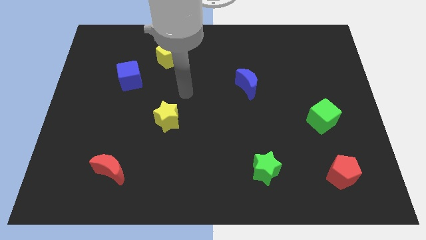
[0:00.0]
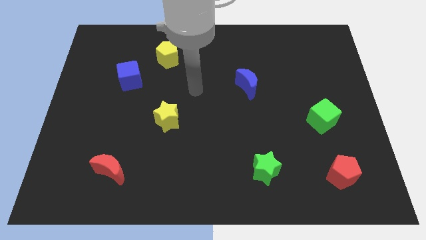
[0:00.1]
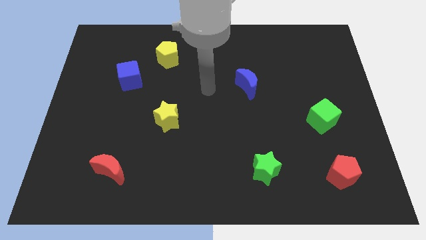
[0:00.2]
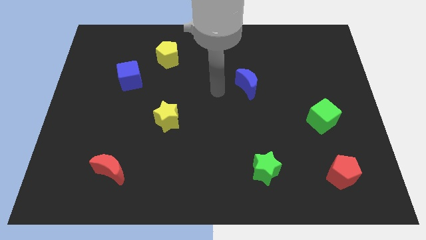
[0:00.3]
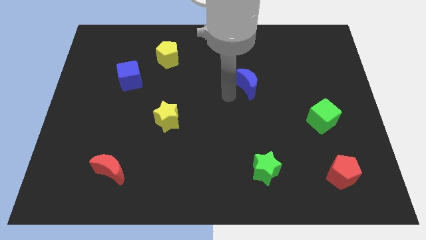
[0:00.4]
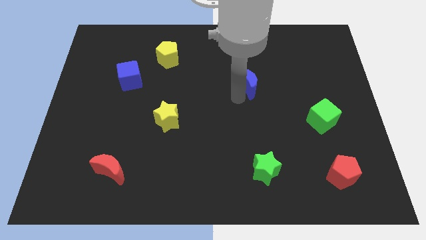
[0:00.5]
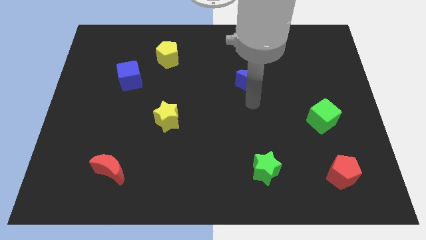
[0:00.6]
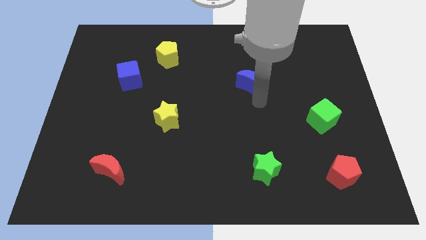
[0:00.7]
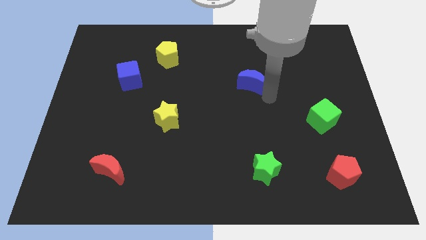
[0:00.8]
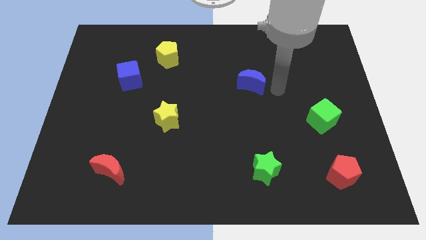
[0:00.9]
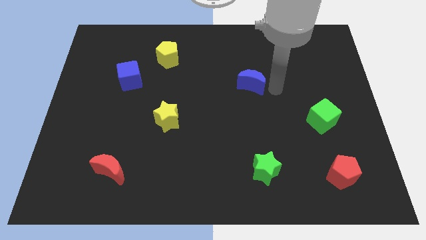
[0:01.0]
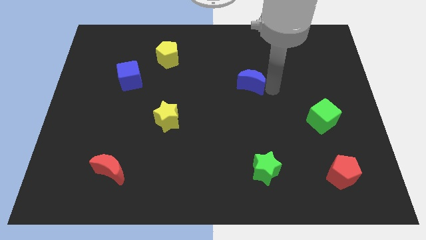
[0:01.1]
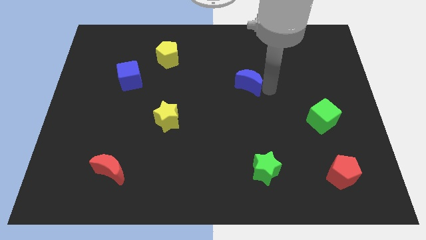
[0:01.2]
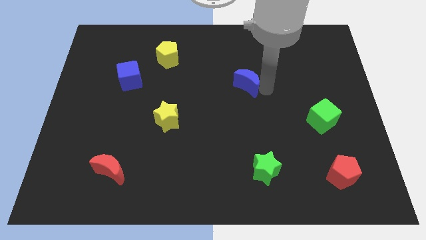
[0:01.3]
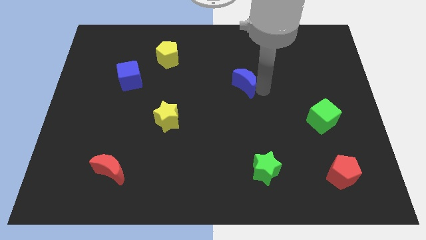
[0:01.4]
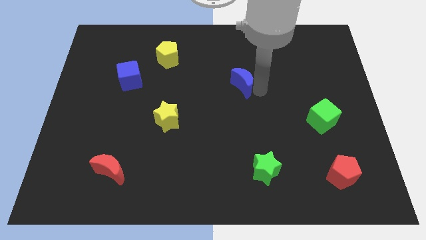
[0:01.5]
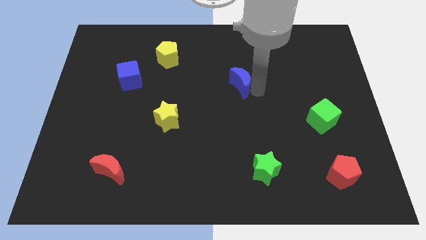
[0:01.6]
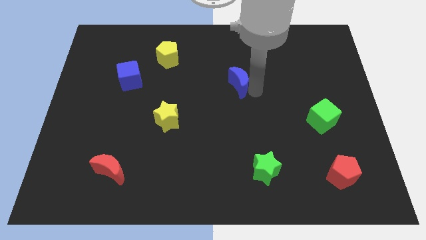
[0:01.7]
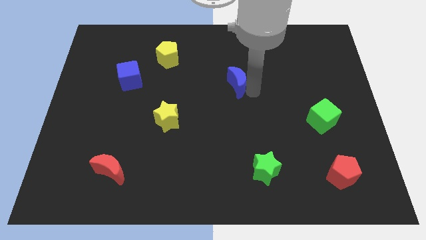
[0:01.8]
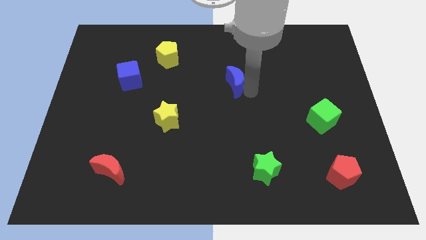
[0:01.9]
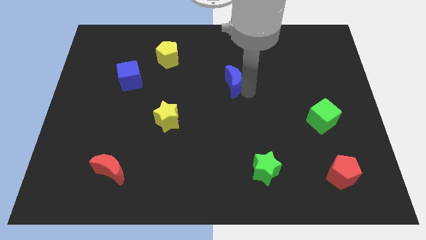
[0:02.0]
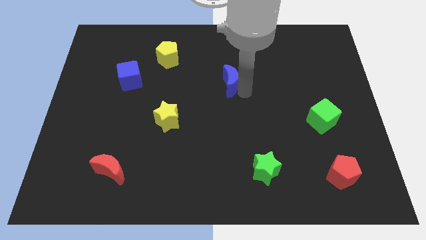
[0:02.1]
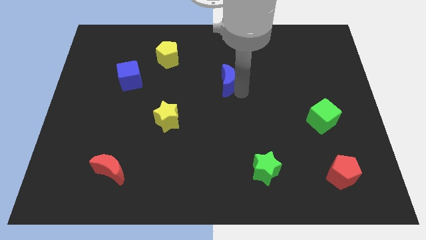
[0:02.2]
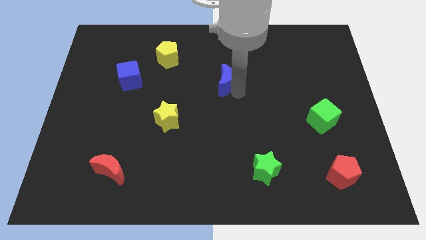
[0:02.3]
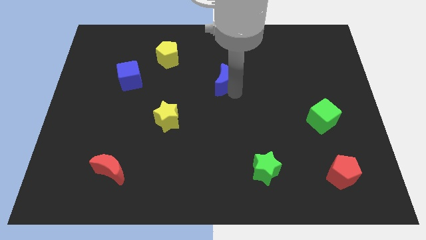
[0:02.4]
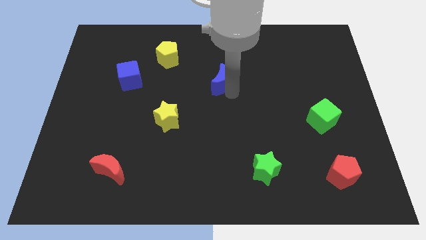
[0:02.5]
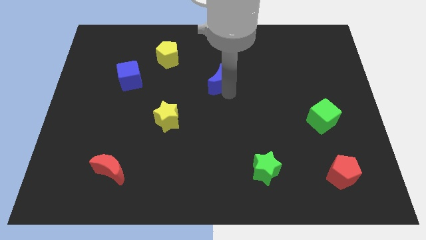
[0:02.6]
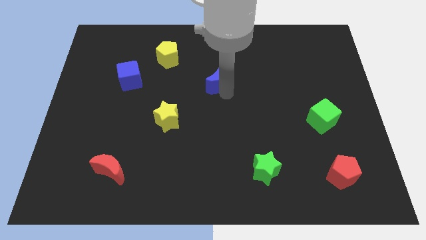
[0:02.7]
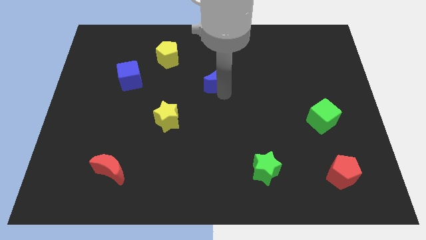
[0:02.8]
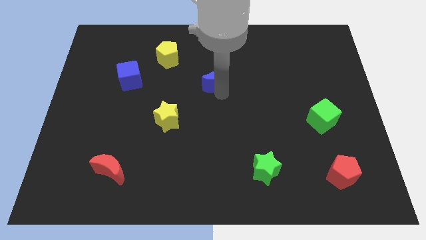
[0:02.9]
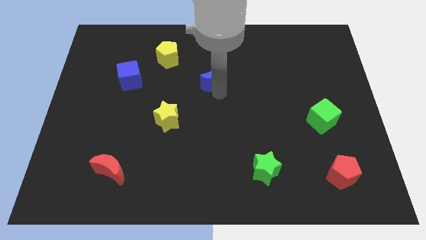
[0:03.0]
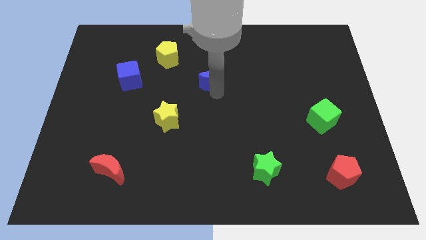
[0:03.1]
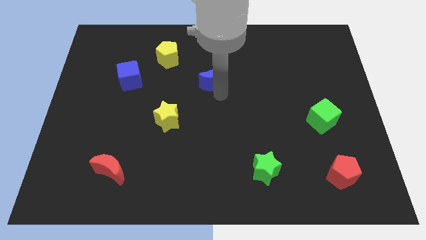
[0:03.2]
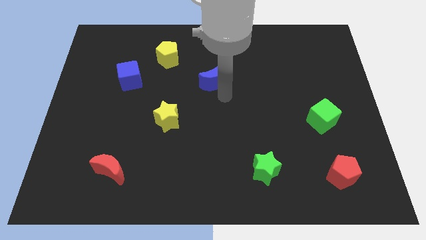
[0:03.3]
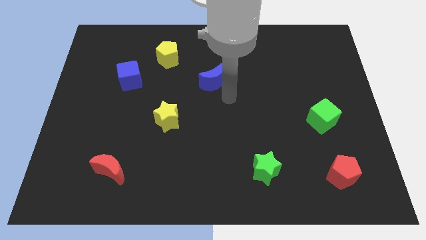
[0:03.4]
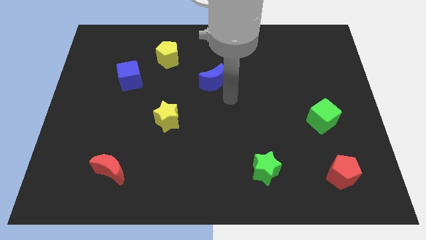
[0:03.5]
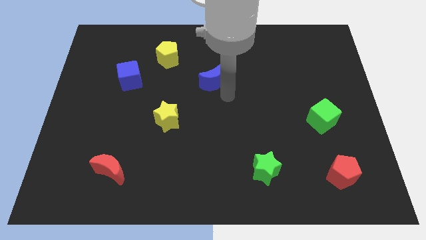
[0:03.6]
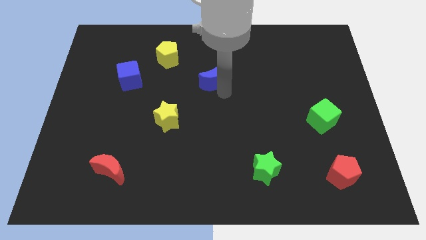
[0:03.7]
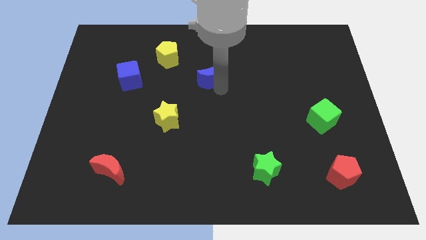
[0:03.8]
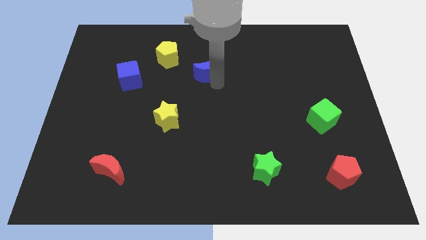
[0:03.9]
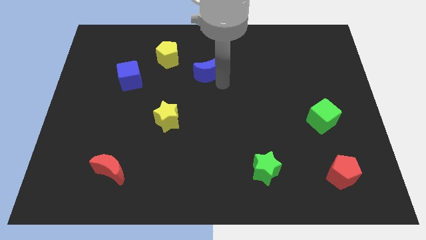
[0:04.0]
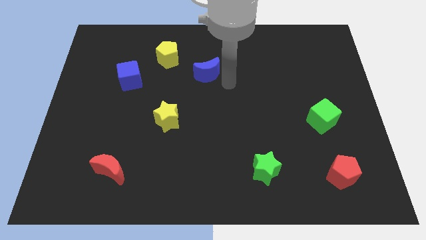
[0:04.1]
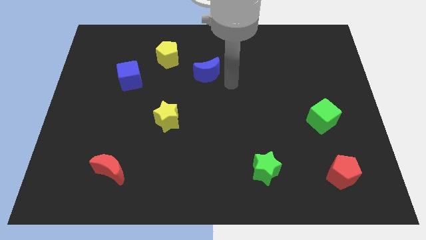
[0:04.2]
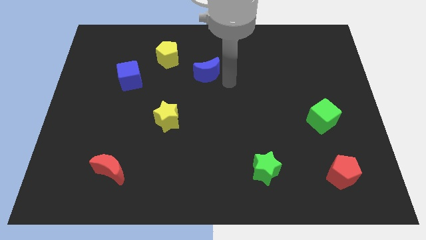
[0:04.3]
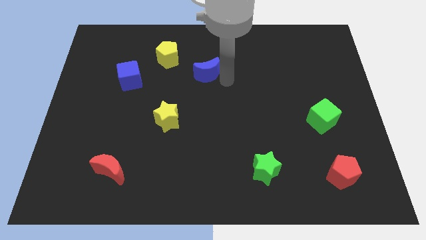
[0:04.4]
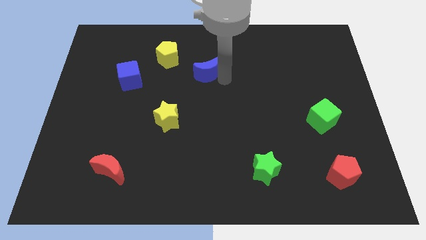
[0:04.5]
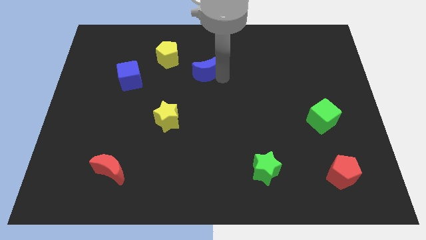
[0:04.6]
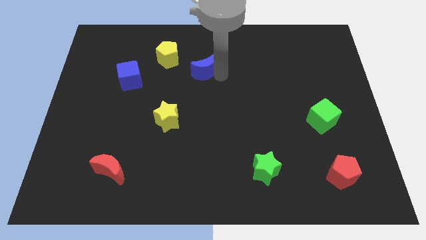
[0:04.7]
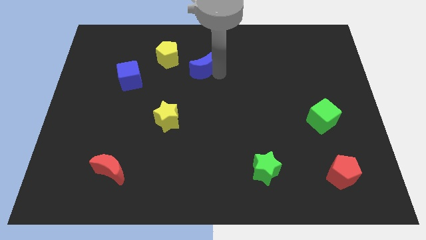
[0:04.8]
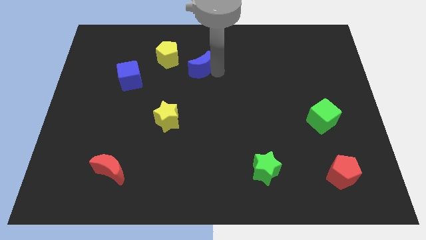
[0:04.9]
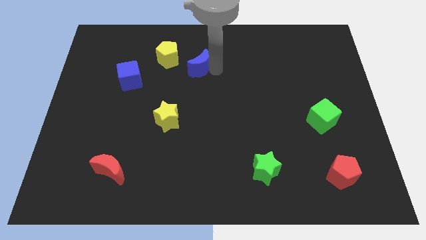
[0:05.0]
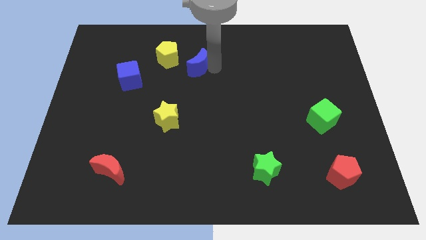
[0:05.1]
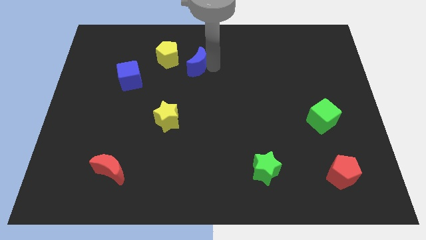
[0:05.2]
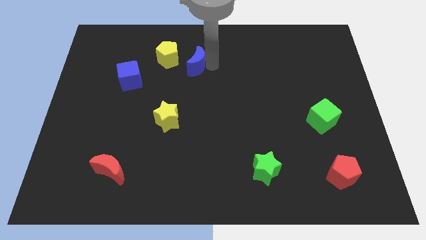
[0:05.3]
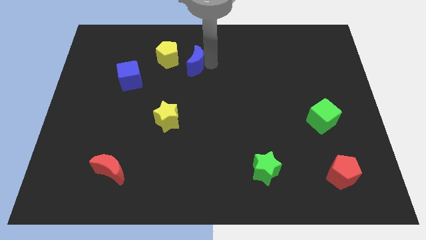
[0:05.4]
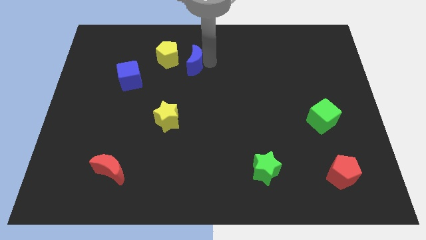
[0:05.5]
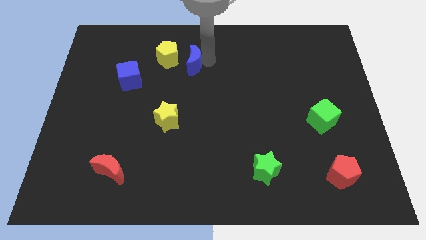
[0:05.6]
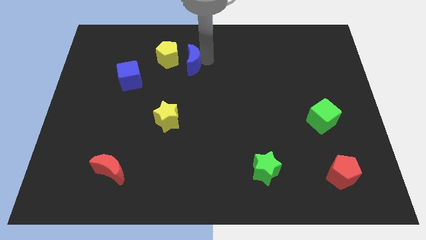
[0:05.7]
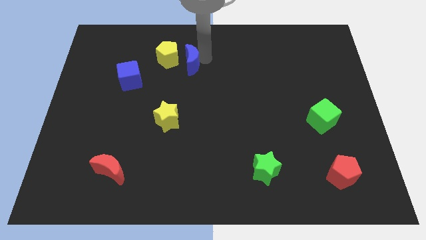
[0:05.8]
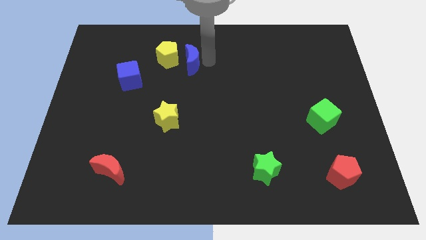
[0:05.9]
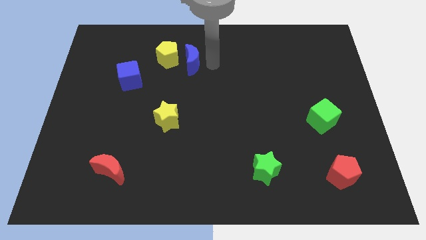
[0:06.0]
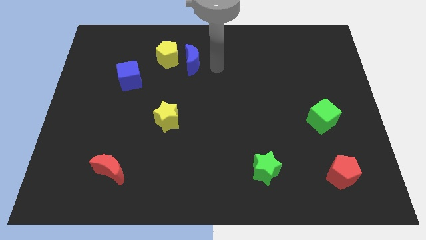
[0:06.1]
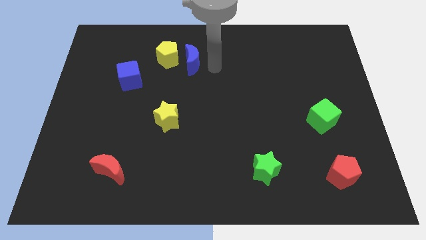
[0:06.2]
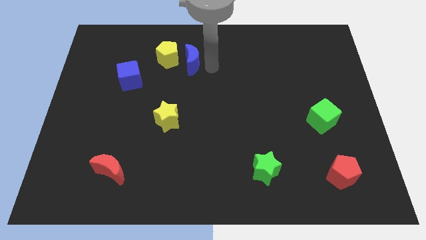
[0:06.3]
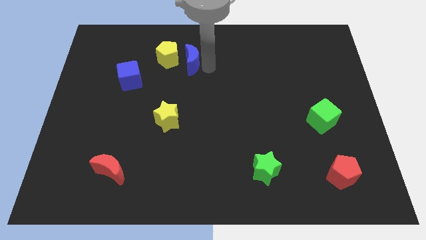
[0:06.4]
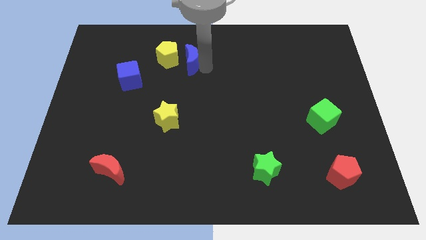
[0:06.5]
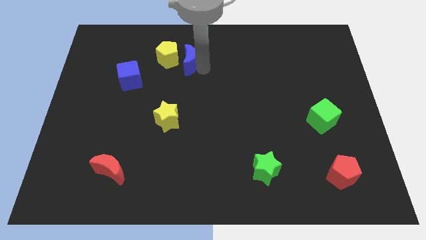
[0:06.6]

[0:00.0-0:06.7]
slide the blue moon to the yellow pentagon

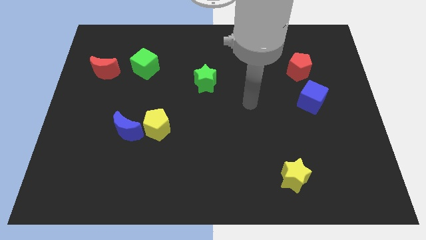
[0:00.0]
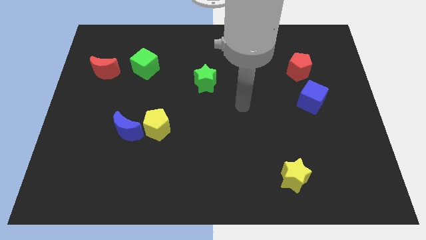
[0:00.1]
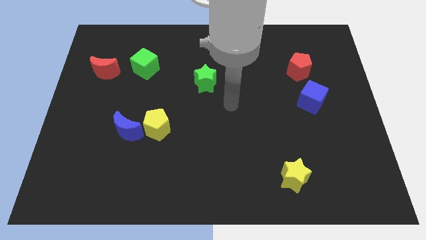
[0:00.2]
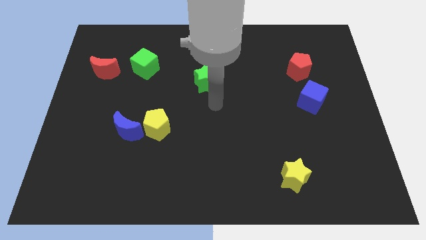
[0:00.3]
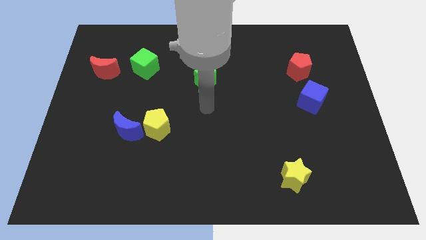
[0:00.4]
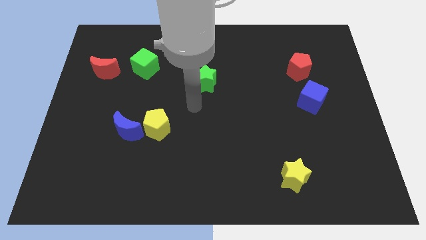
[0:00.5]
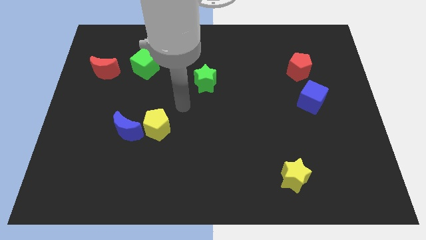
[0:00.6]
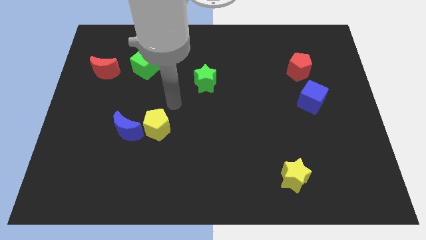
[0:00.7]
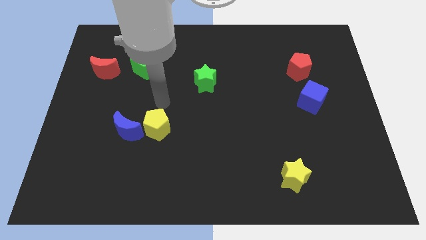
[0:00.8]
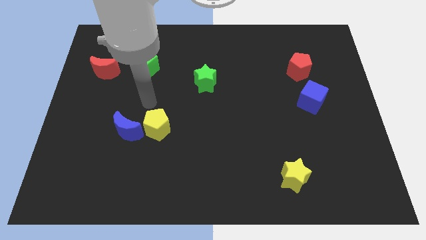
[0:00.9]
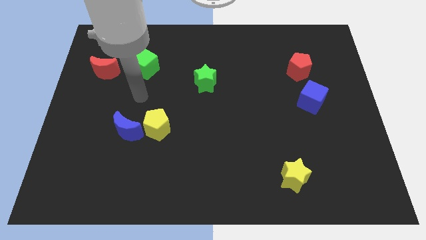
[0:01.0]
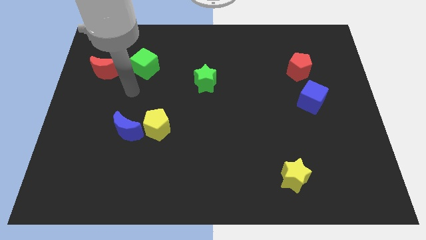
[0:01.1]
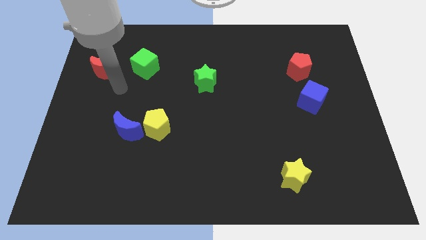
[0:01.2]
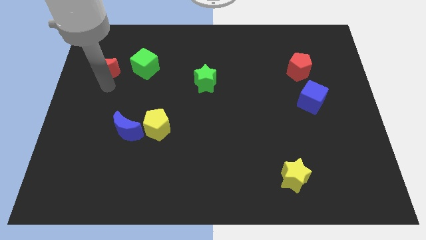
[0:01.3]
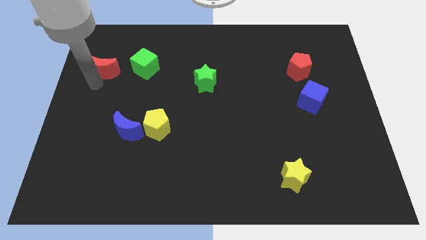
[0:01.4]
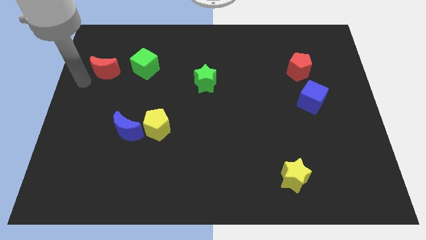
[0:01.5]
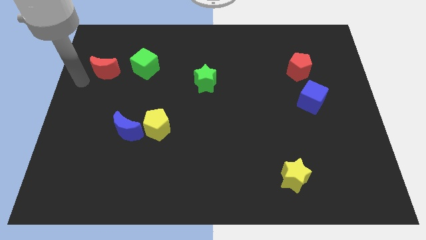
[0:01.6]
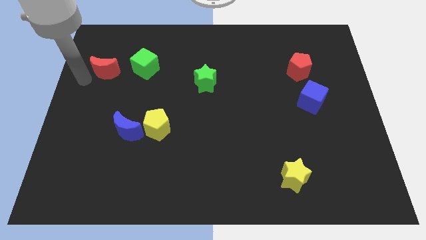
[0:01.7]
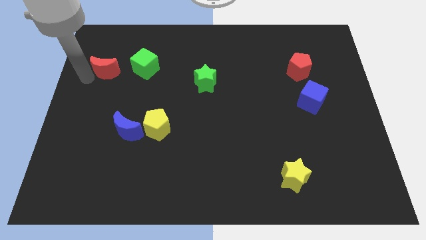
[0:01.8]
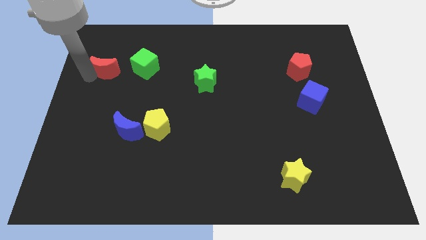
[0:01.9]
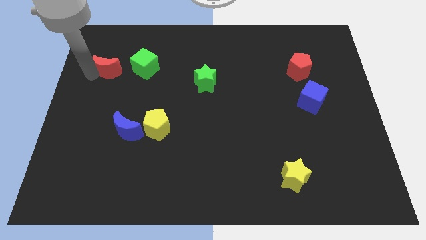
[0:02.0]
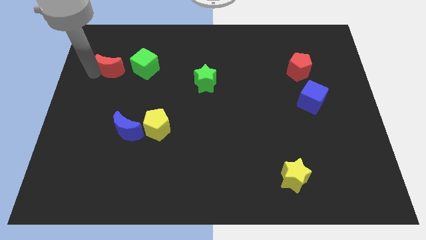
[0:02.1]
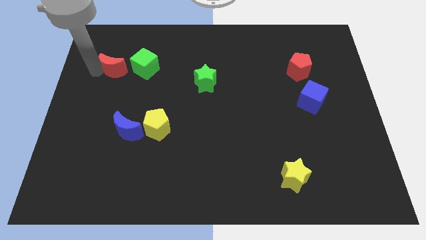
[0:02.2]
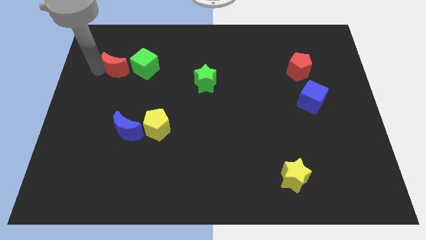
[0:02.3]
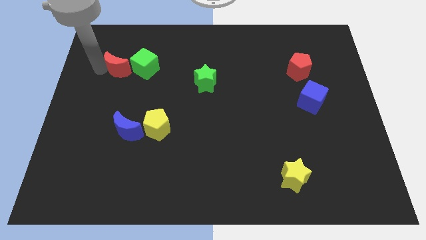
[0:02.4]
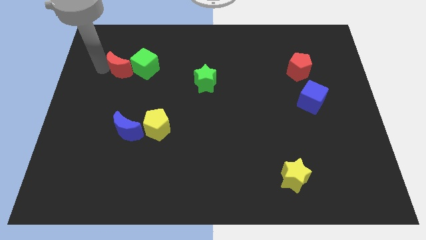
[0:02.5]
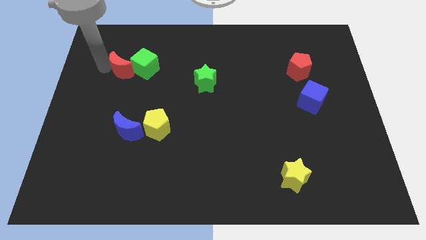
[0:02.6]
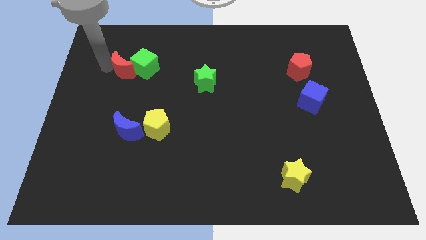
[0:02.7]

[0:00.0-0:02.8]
slide the red moon to the green cube
